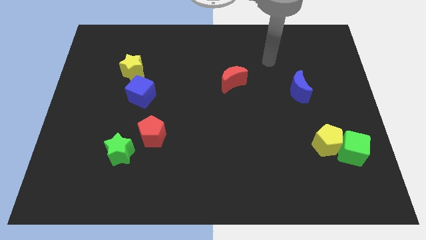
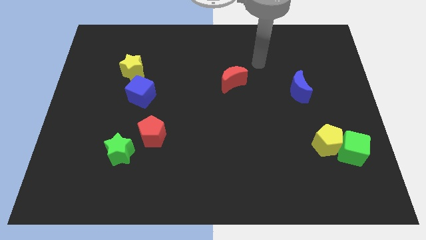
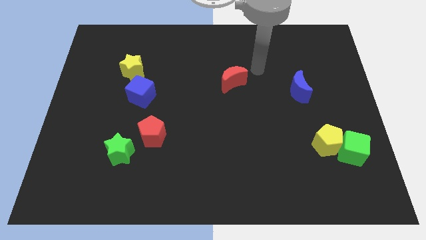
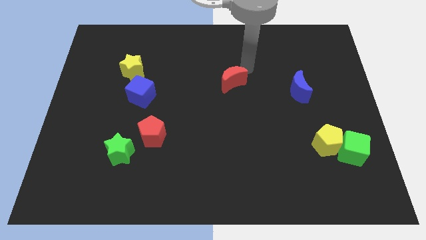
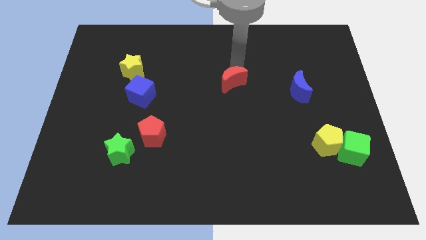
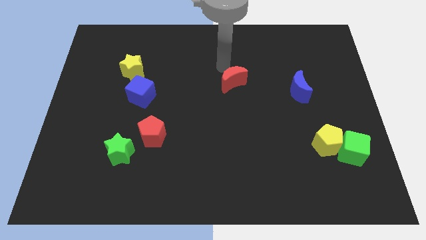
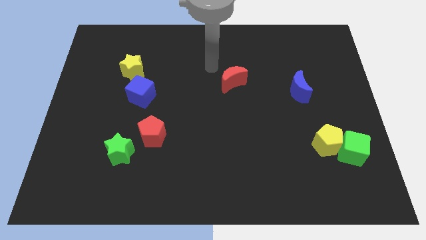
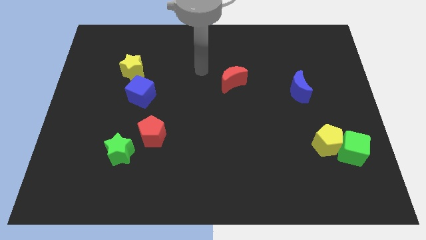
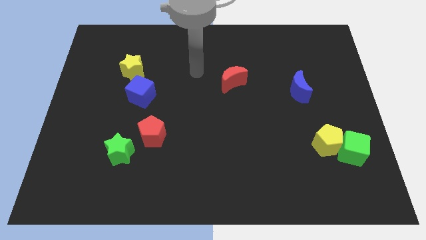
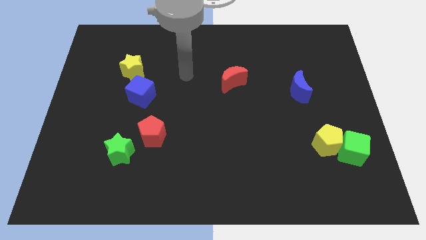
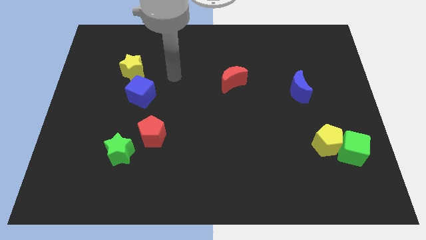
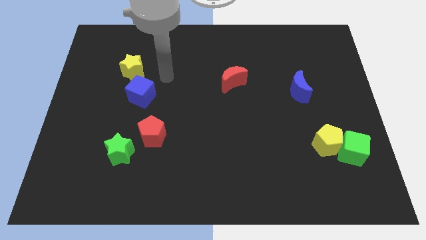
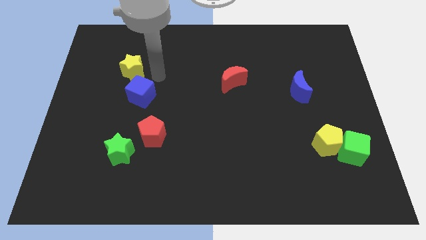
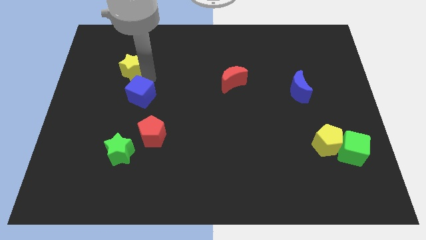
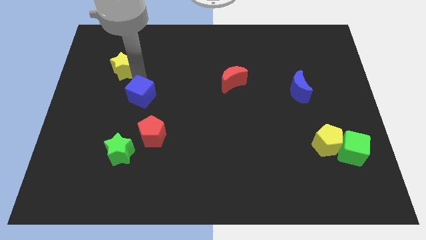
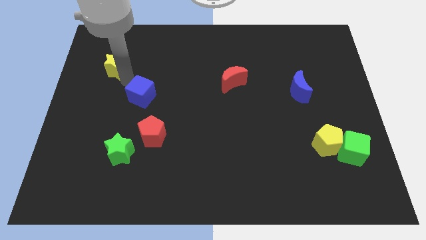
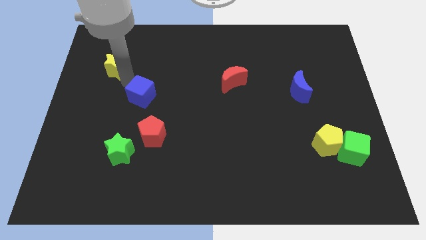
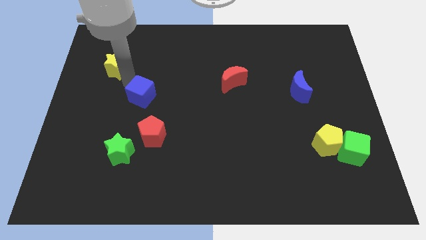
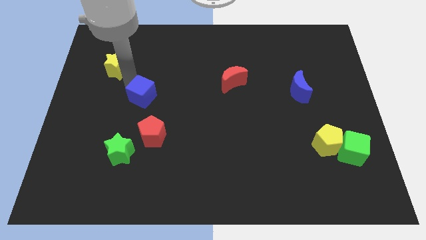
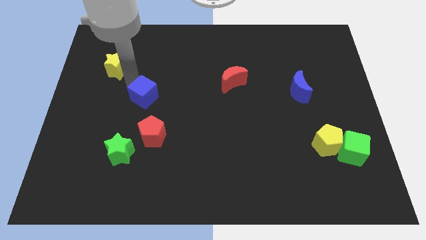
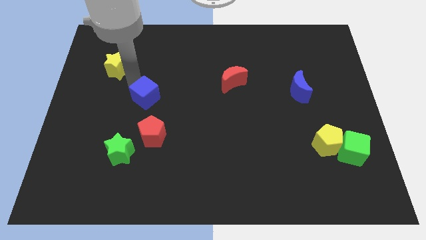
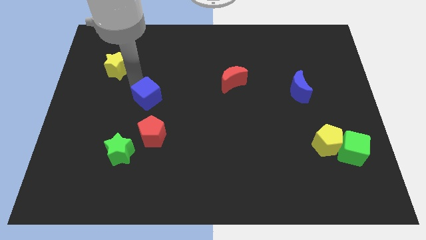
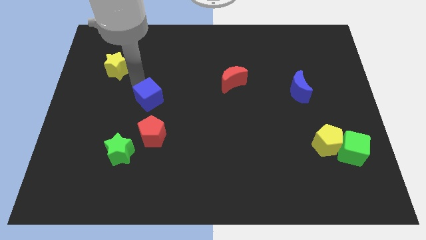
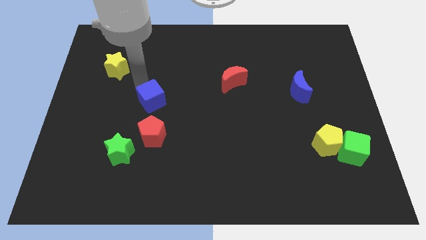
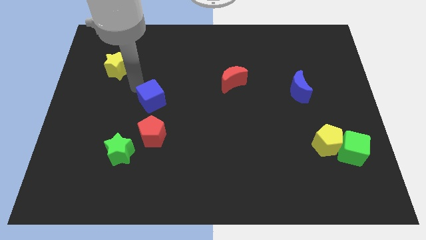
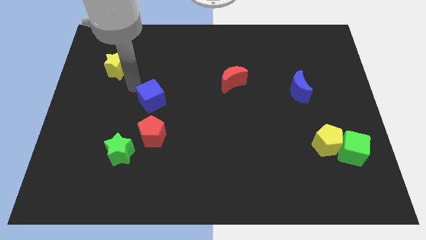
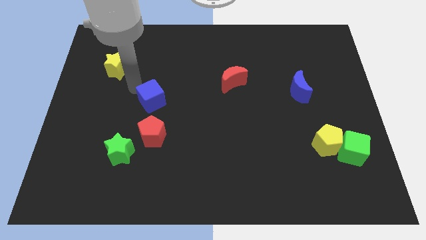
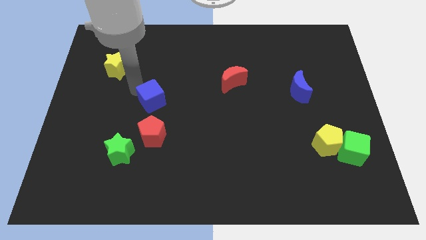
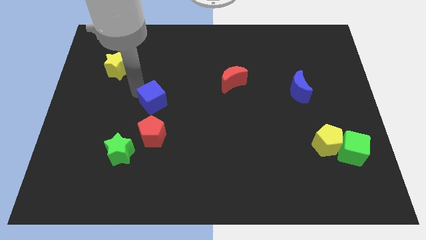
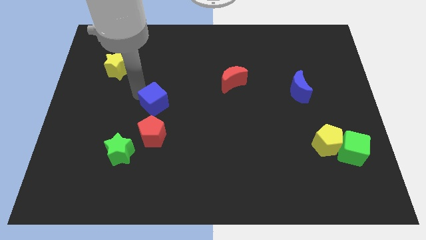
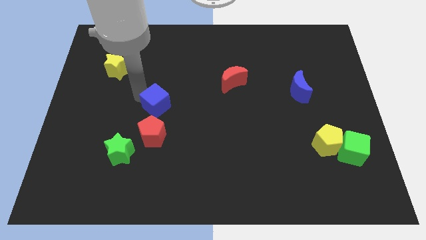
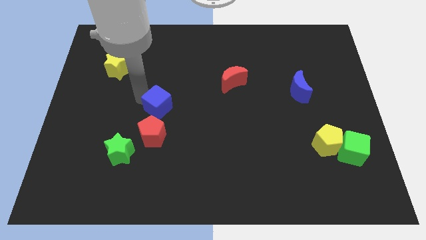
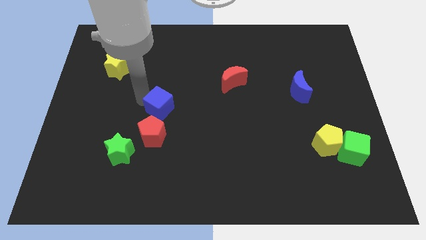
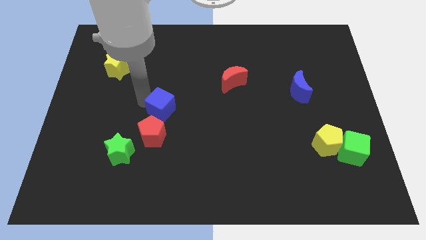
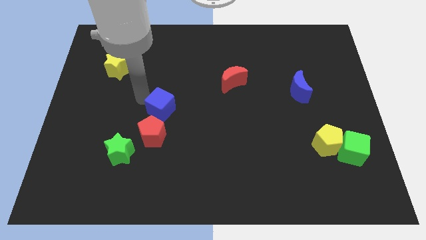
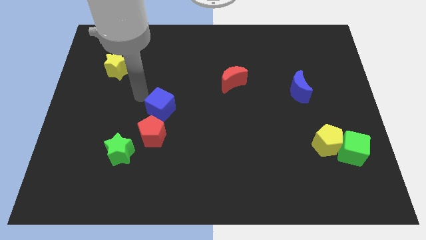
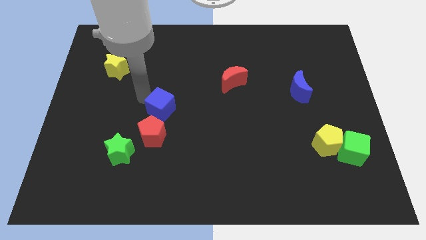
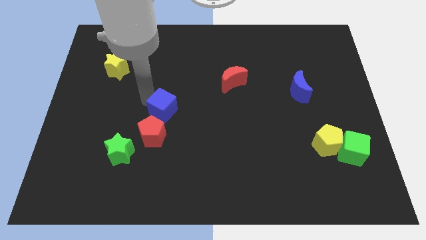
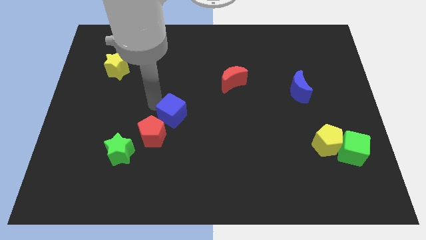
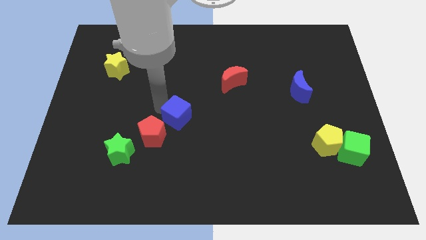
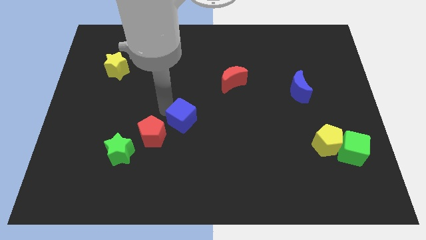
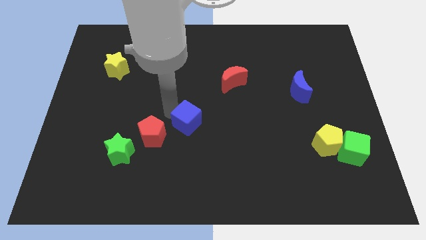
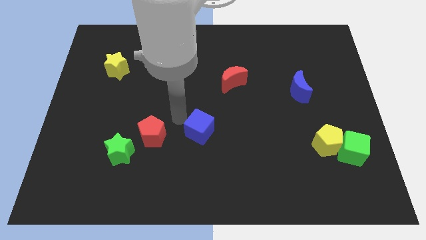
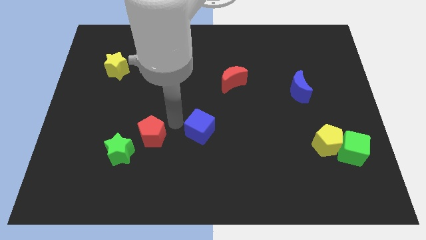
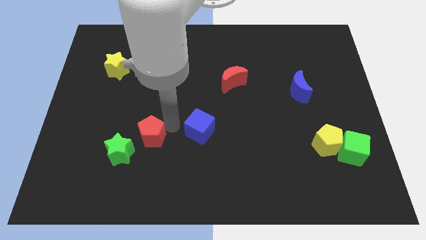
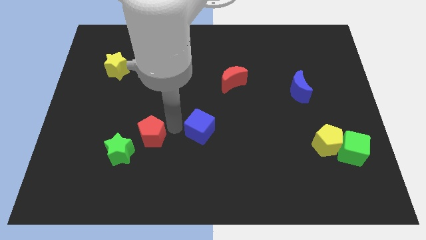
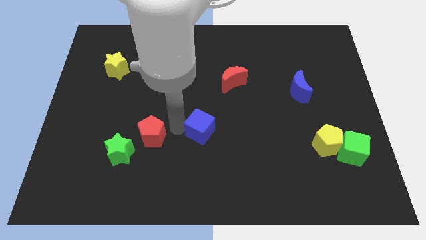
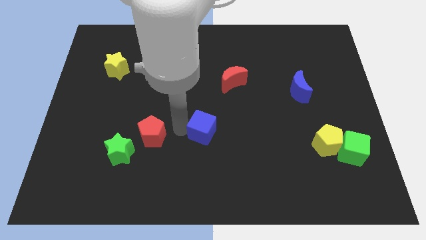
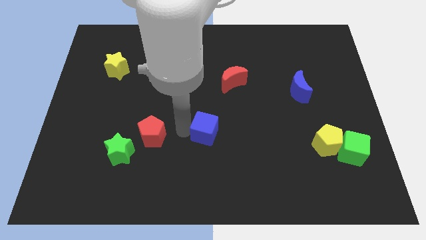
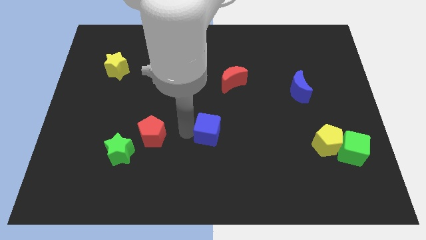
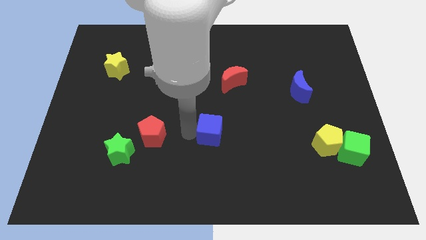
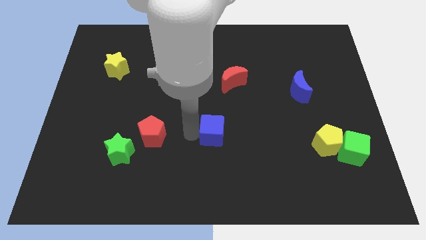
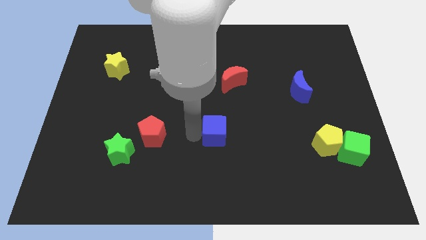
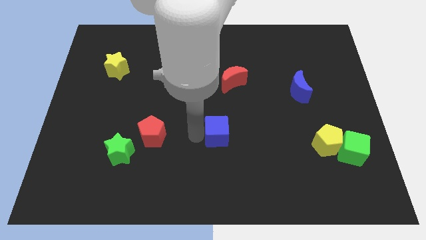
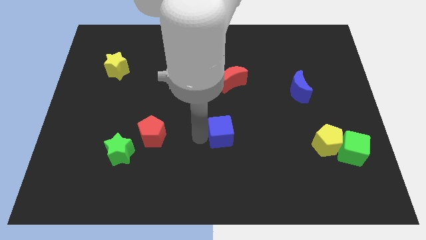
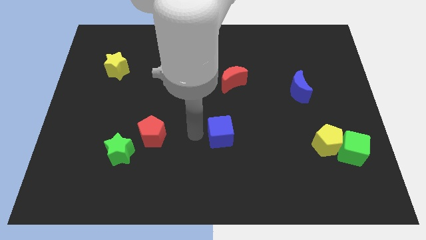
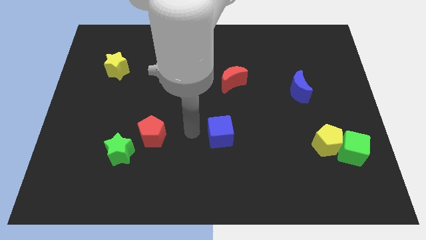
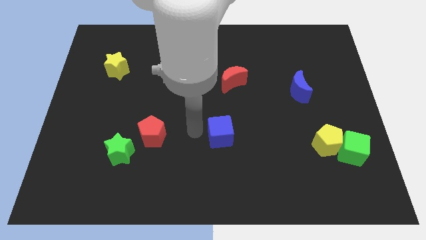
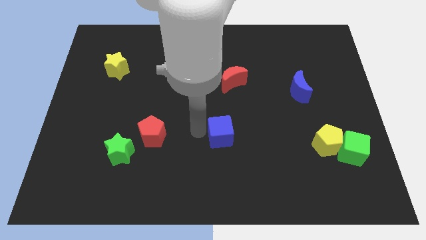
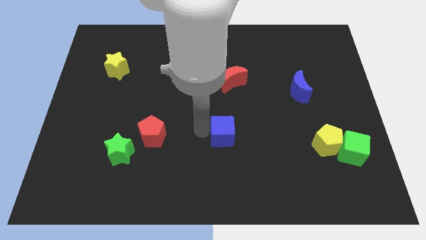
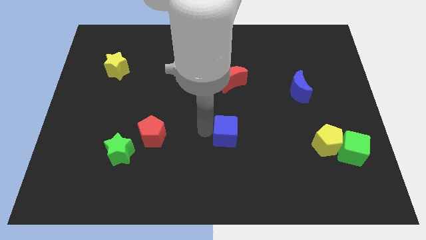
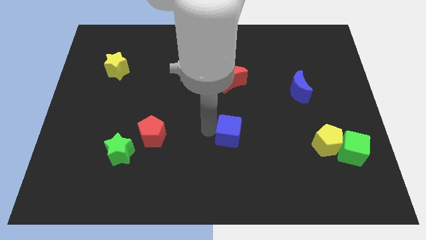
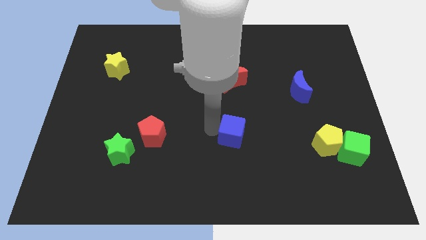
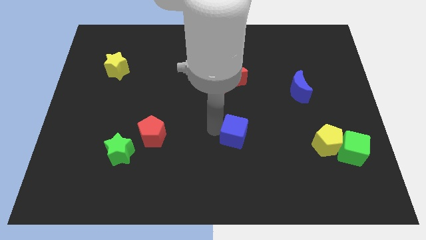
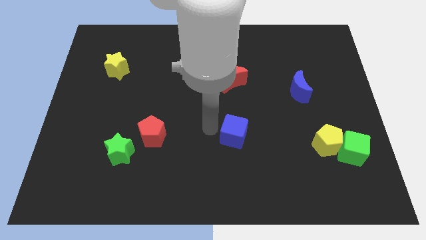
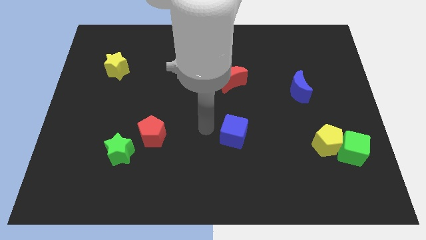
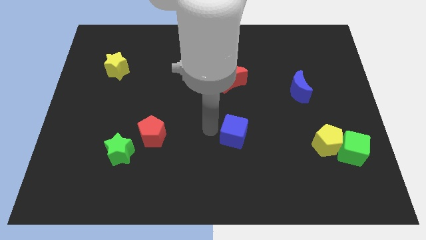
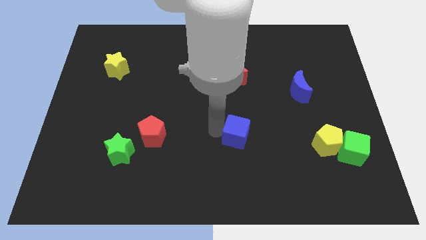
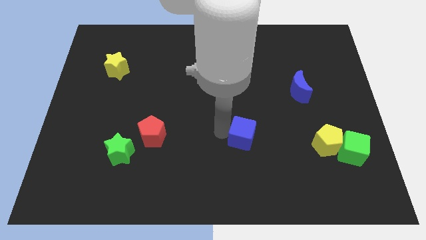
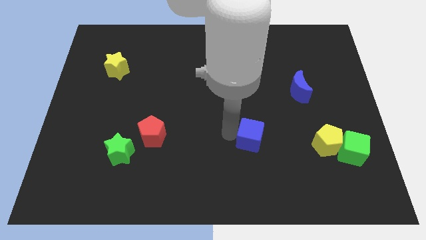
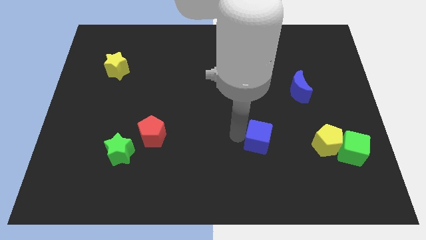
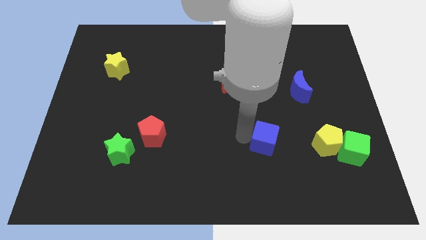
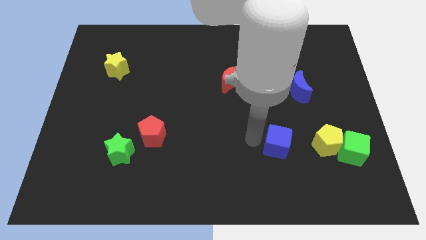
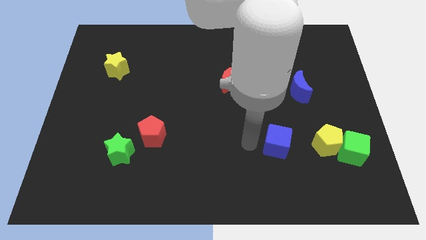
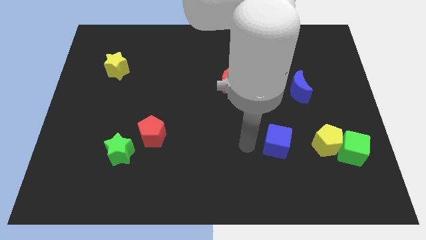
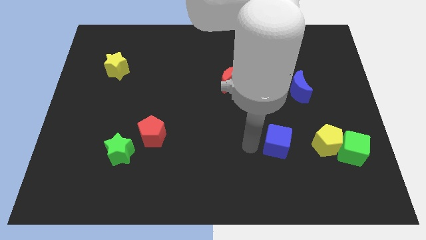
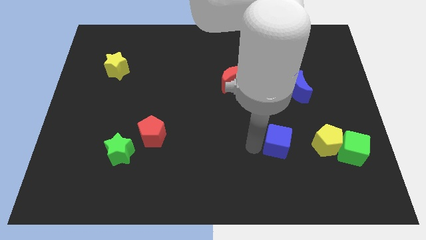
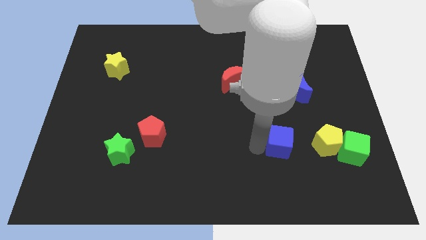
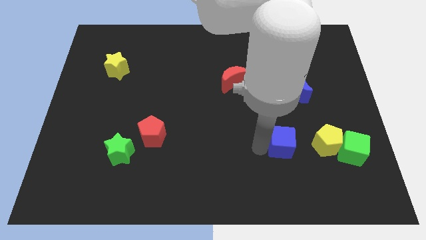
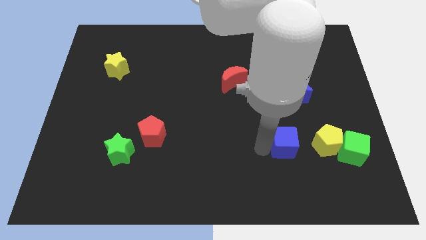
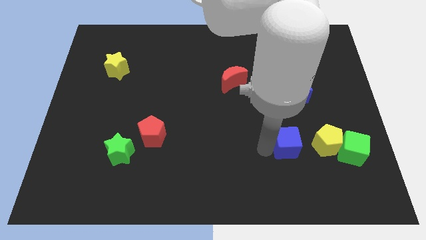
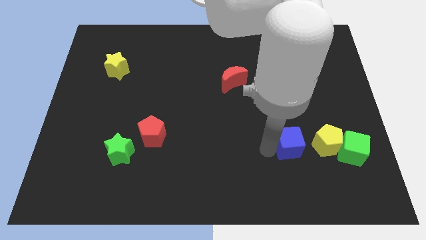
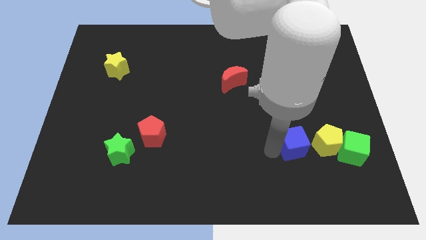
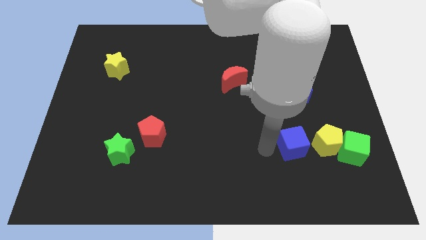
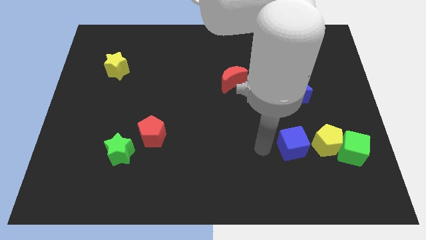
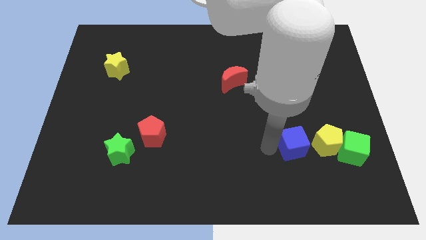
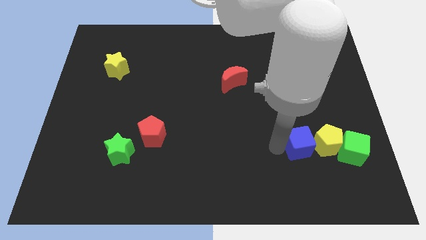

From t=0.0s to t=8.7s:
push the blue cube next to the yellow pentagon
